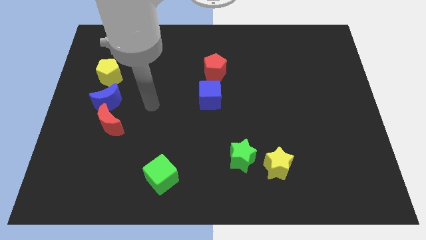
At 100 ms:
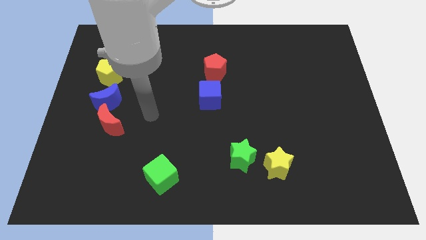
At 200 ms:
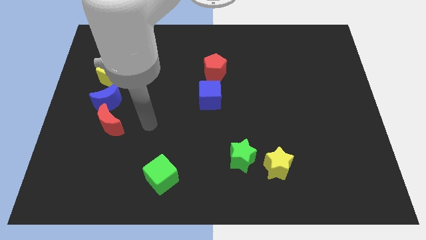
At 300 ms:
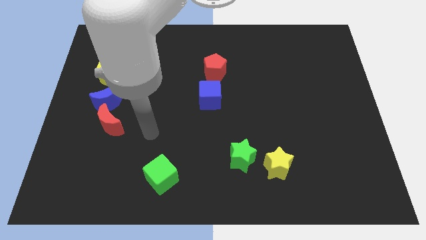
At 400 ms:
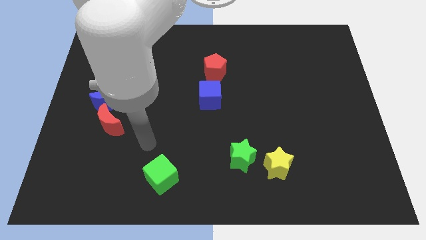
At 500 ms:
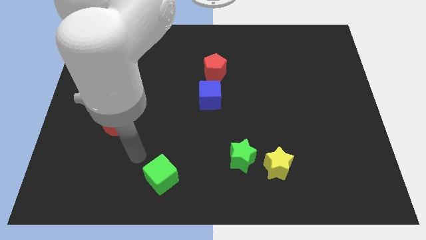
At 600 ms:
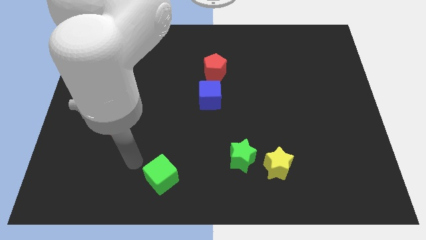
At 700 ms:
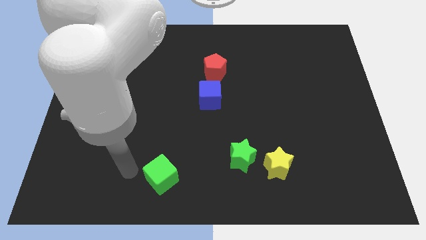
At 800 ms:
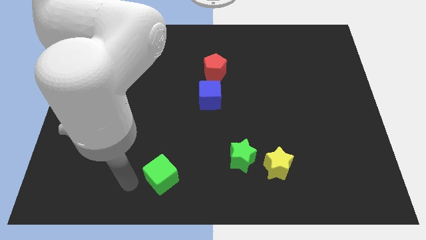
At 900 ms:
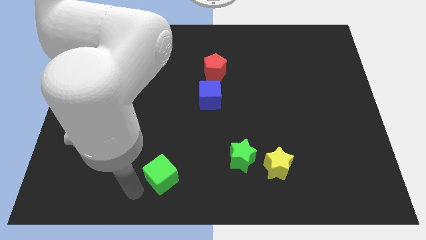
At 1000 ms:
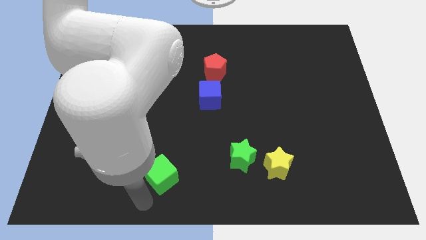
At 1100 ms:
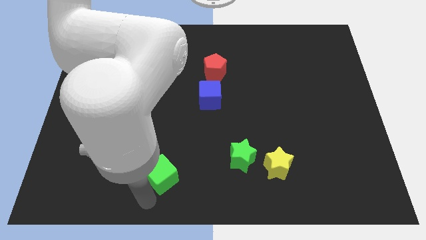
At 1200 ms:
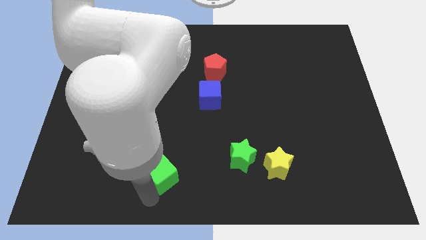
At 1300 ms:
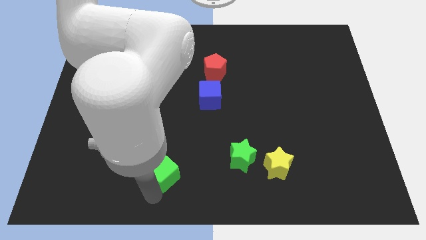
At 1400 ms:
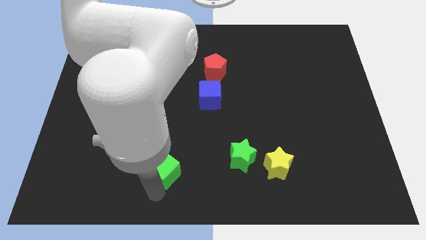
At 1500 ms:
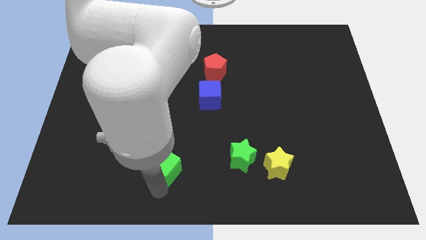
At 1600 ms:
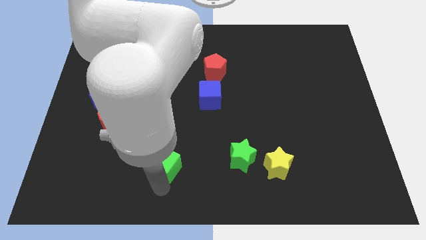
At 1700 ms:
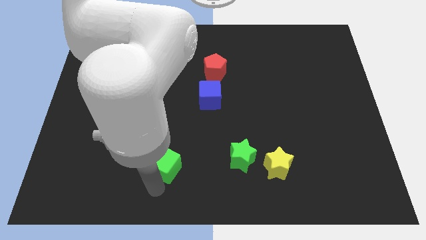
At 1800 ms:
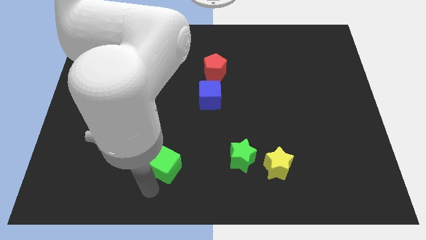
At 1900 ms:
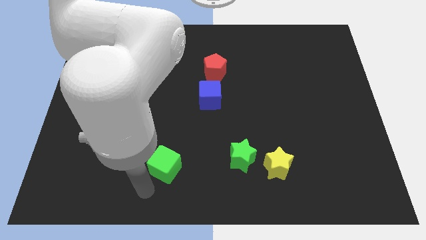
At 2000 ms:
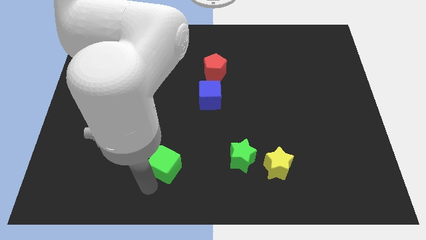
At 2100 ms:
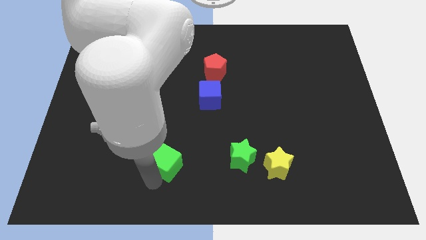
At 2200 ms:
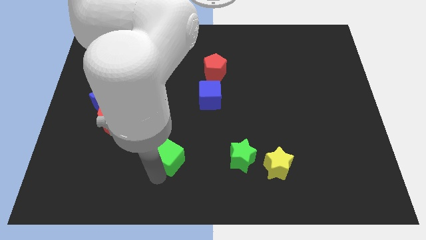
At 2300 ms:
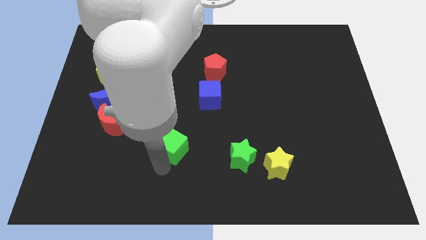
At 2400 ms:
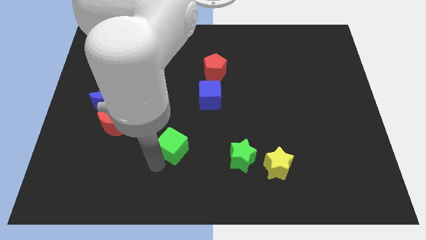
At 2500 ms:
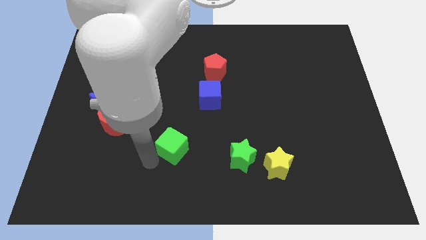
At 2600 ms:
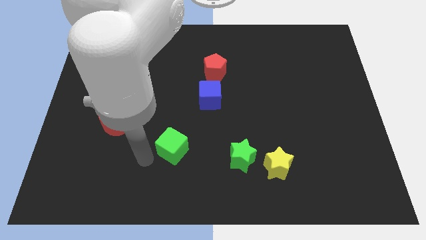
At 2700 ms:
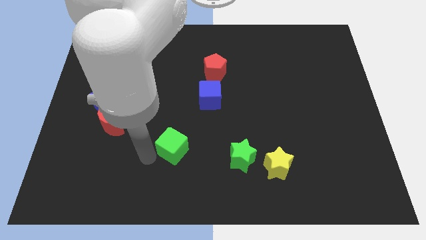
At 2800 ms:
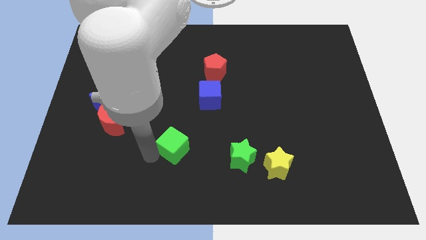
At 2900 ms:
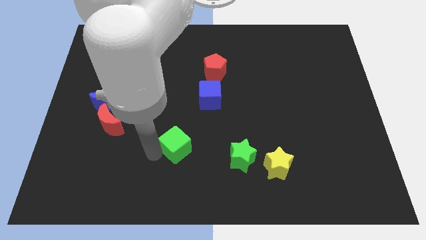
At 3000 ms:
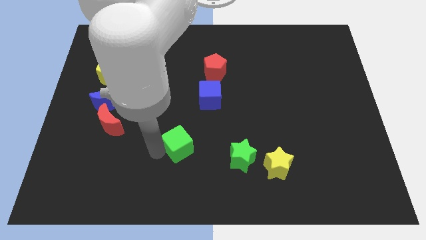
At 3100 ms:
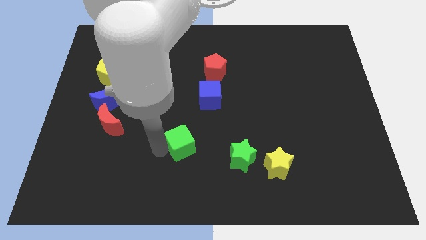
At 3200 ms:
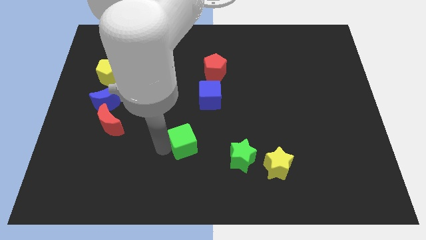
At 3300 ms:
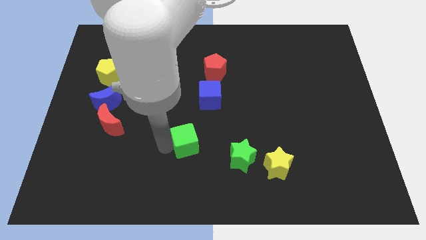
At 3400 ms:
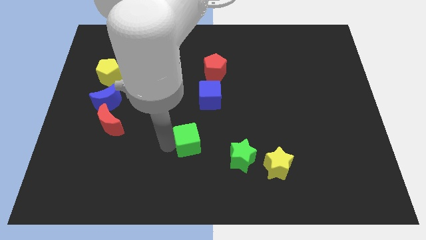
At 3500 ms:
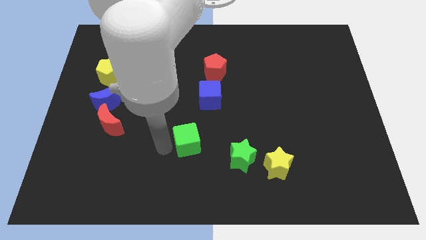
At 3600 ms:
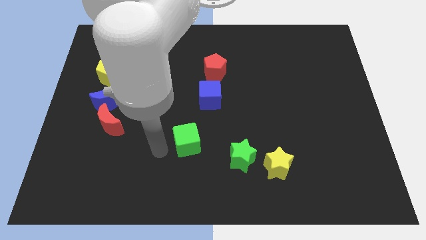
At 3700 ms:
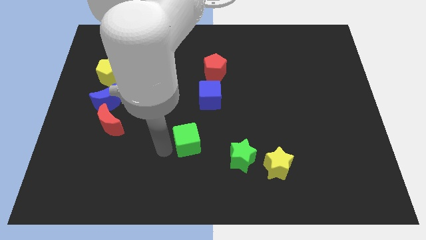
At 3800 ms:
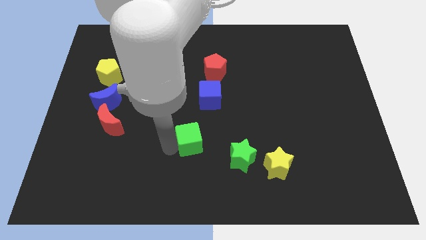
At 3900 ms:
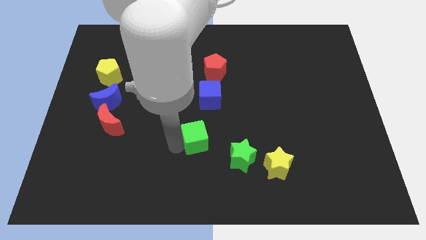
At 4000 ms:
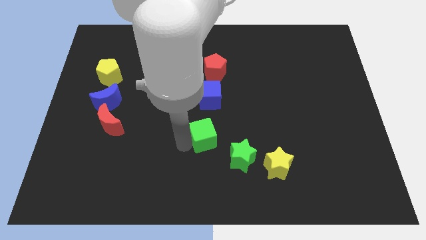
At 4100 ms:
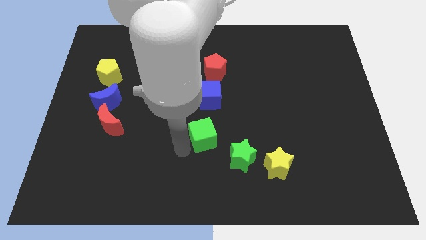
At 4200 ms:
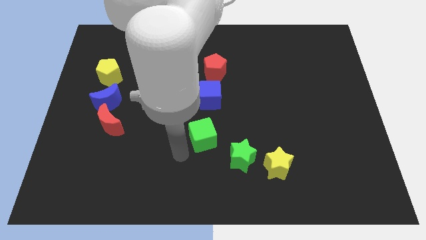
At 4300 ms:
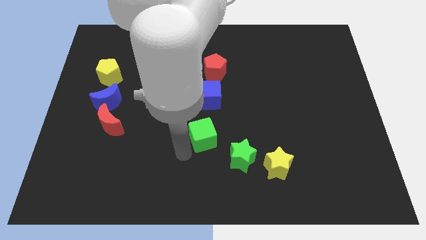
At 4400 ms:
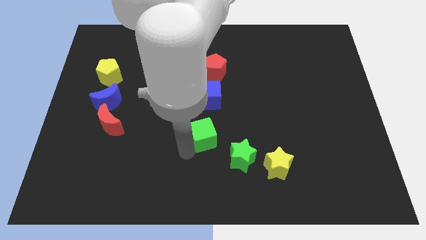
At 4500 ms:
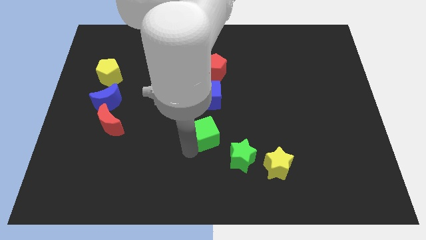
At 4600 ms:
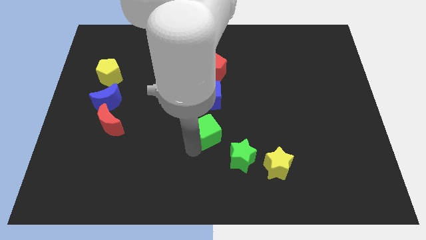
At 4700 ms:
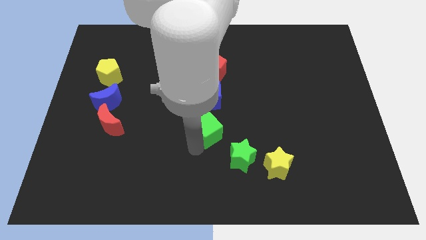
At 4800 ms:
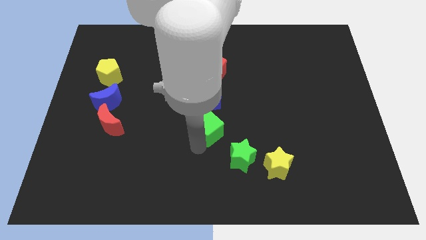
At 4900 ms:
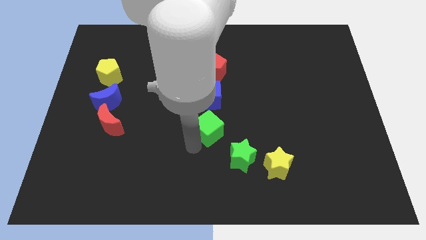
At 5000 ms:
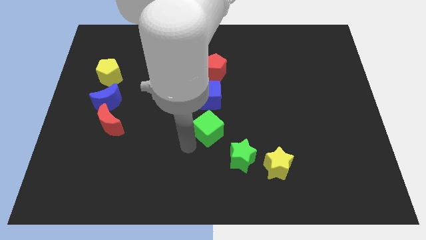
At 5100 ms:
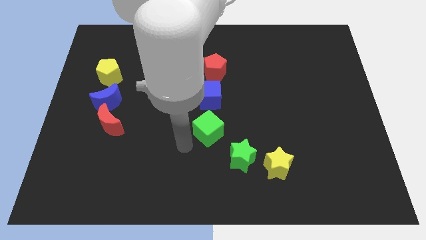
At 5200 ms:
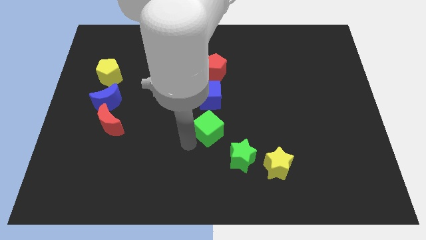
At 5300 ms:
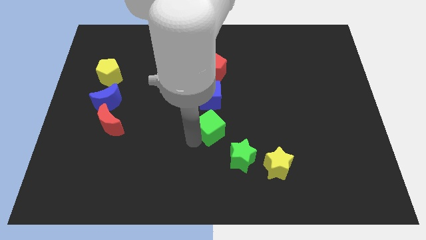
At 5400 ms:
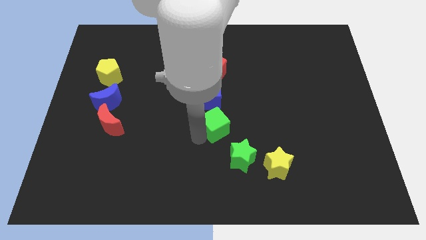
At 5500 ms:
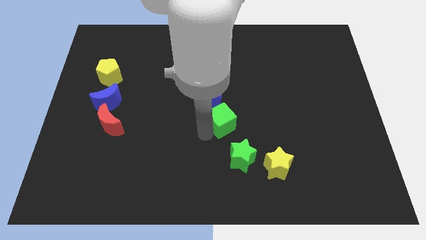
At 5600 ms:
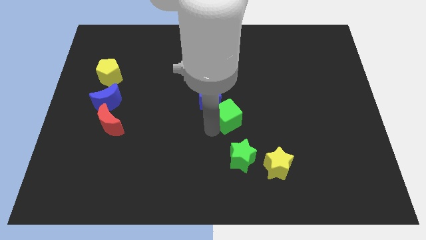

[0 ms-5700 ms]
push the green cube up and to the right

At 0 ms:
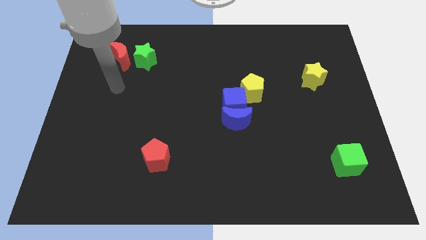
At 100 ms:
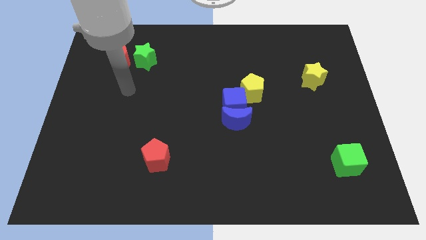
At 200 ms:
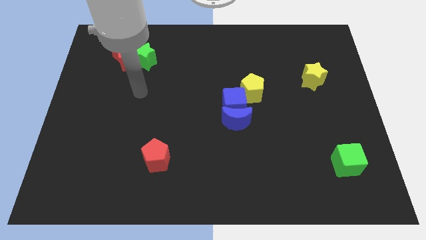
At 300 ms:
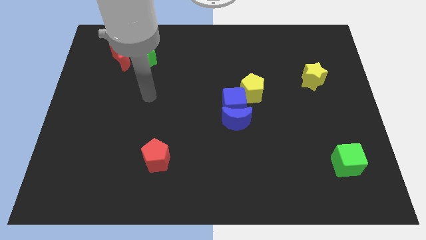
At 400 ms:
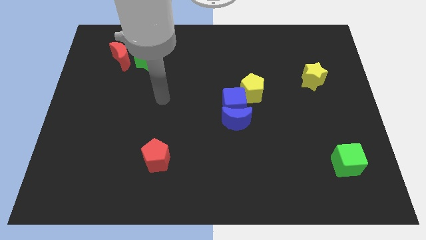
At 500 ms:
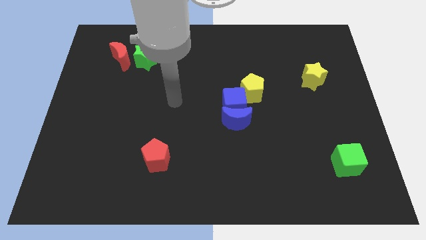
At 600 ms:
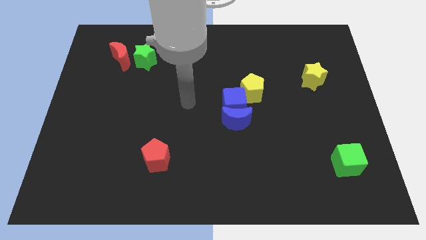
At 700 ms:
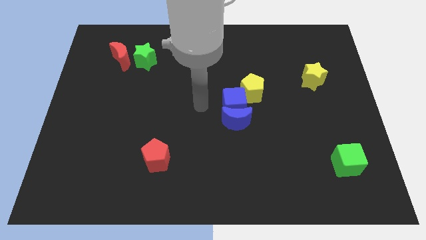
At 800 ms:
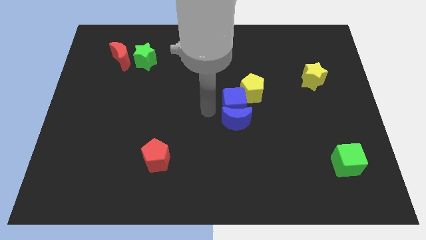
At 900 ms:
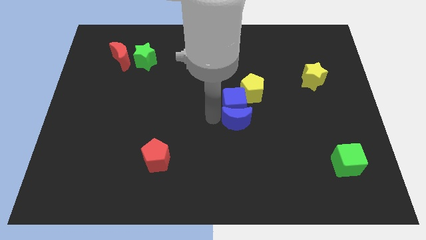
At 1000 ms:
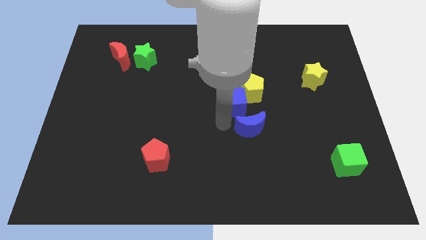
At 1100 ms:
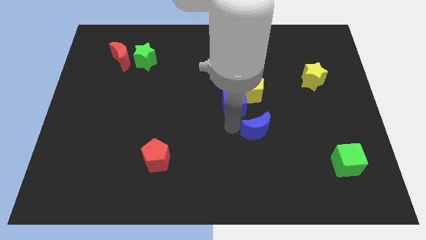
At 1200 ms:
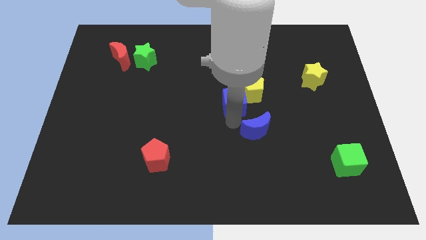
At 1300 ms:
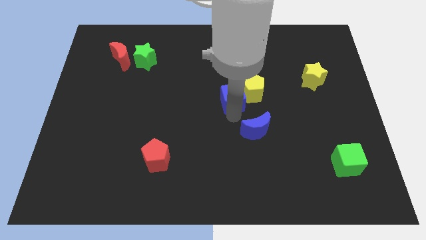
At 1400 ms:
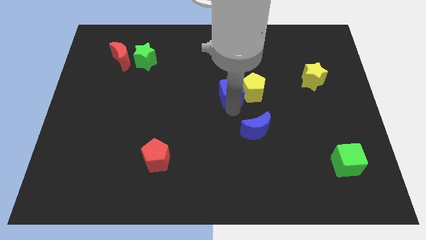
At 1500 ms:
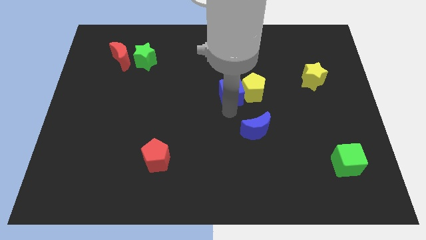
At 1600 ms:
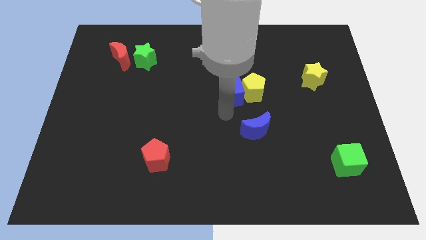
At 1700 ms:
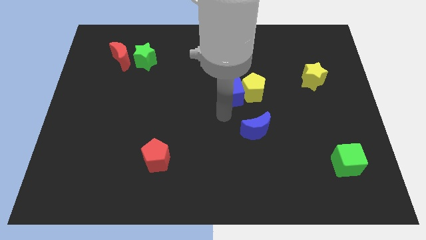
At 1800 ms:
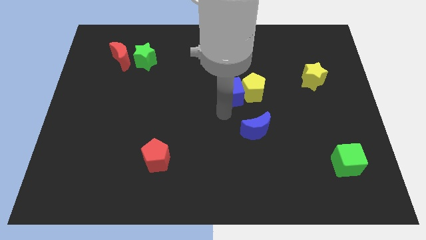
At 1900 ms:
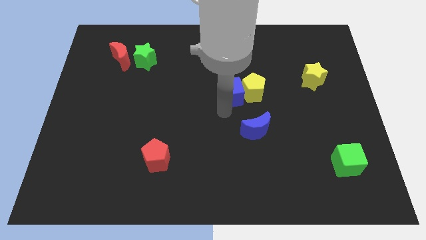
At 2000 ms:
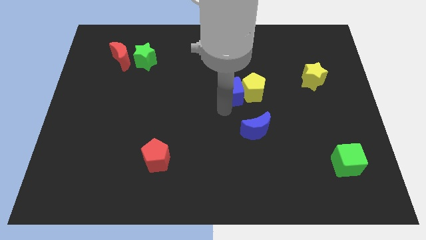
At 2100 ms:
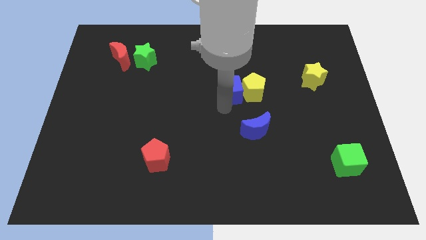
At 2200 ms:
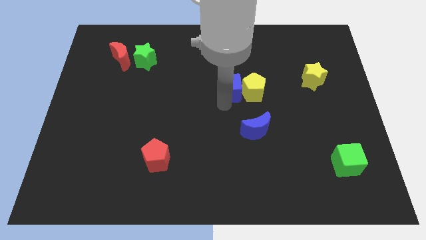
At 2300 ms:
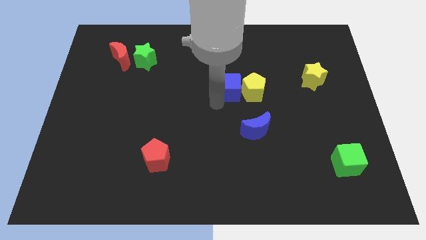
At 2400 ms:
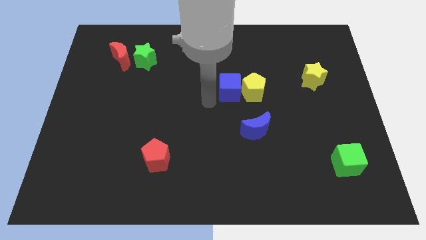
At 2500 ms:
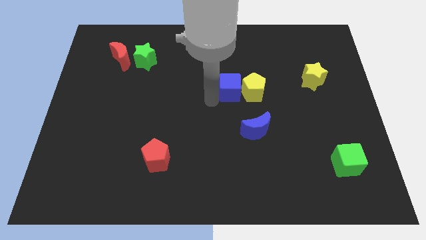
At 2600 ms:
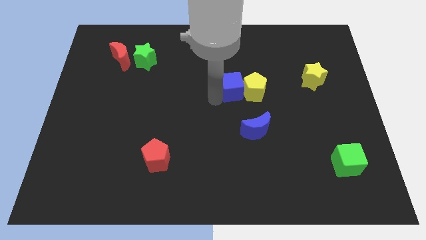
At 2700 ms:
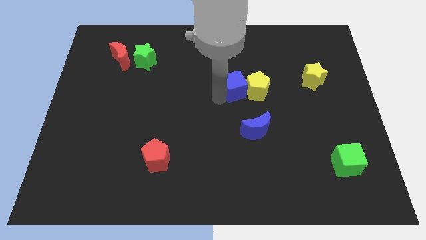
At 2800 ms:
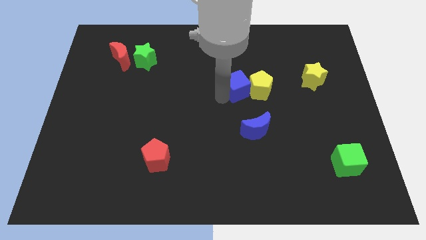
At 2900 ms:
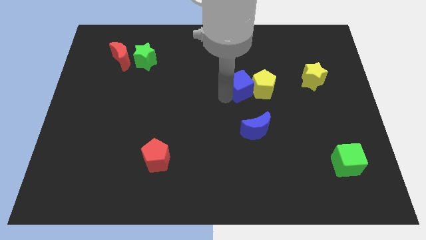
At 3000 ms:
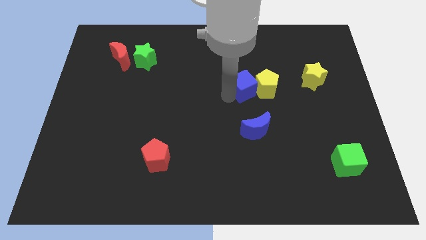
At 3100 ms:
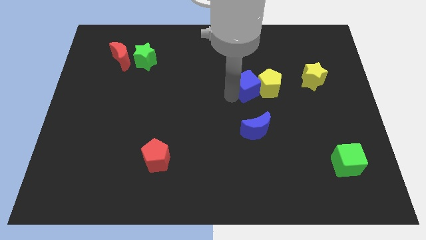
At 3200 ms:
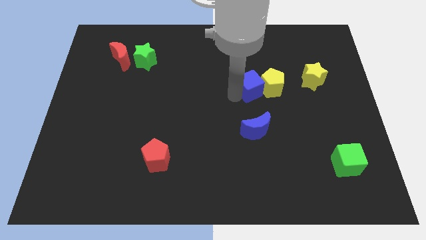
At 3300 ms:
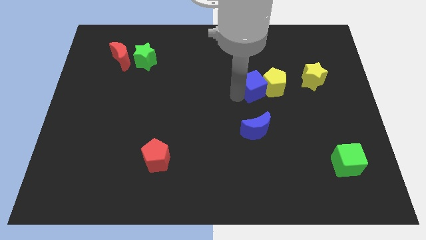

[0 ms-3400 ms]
move the blue cube upwards and right diagonally slightly
